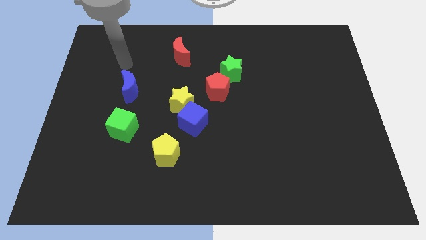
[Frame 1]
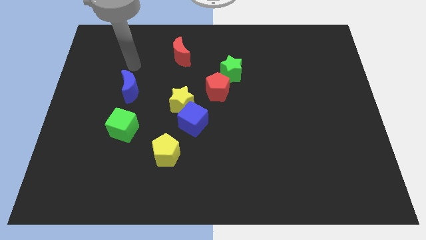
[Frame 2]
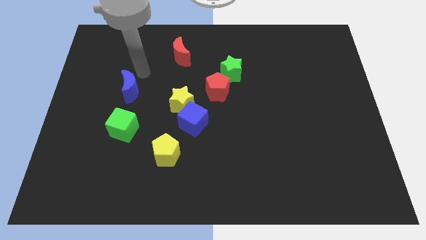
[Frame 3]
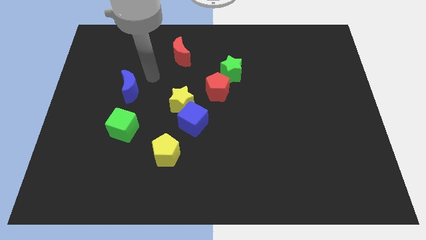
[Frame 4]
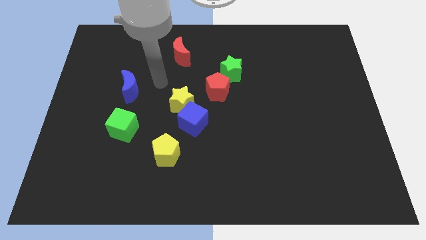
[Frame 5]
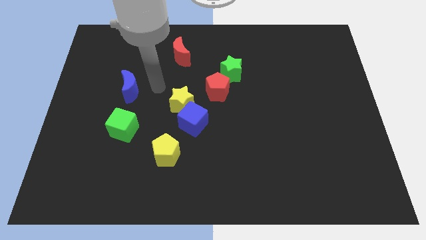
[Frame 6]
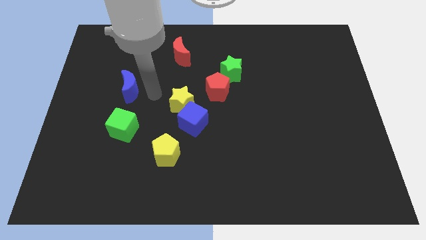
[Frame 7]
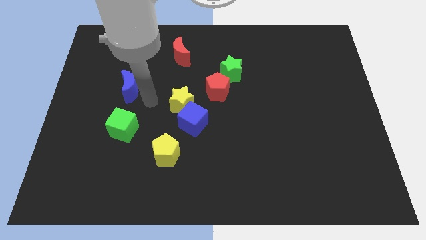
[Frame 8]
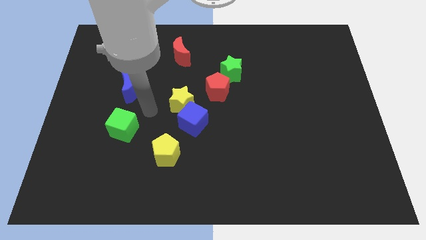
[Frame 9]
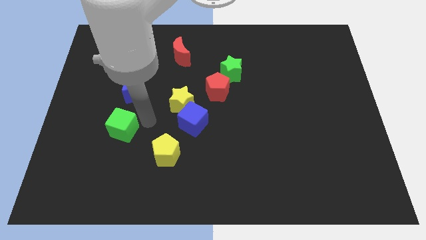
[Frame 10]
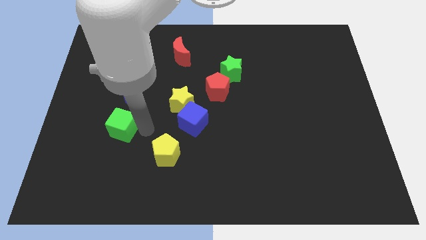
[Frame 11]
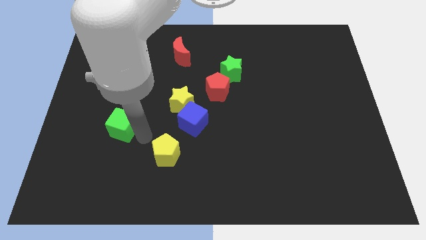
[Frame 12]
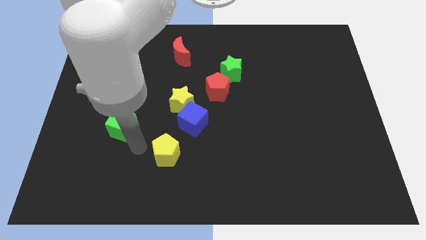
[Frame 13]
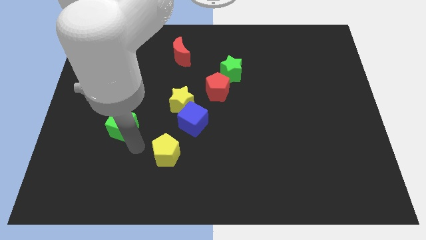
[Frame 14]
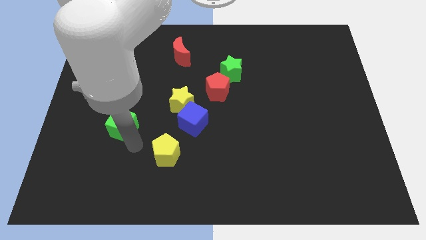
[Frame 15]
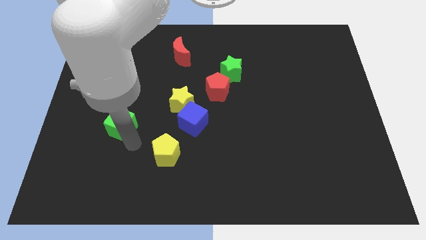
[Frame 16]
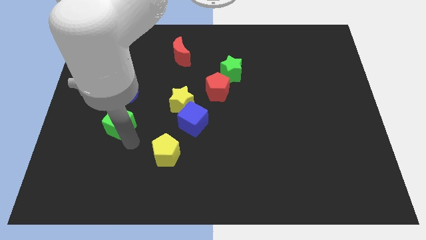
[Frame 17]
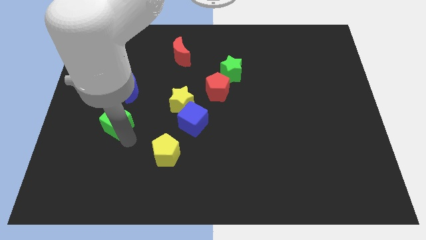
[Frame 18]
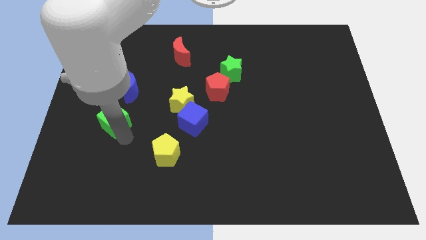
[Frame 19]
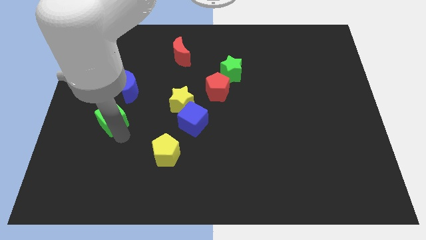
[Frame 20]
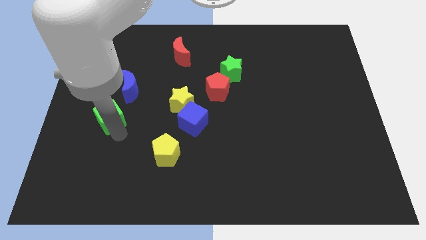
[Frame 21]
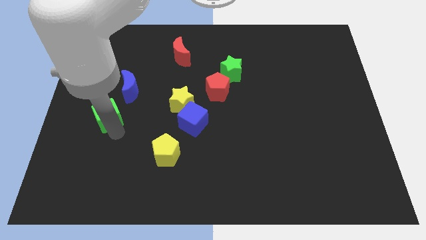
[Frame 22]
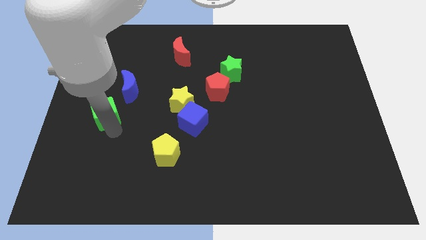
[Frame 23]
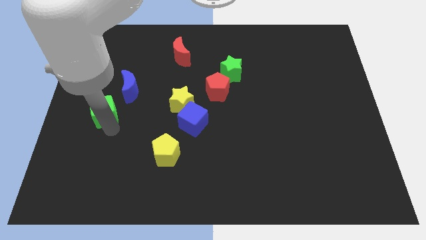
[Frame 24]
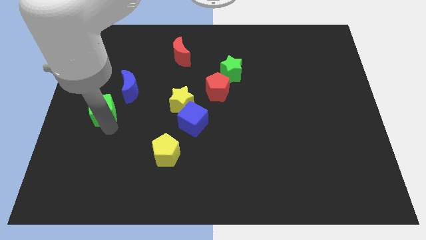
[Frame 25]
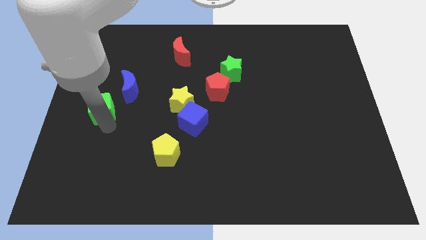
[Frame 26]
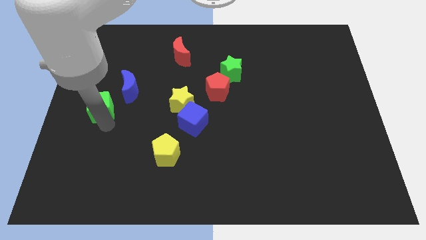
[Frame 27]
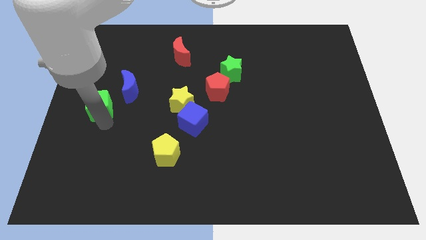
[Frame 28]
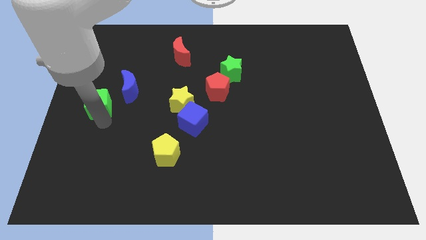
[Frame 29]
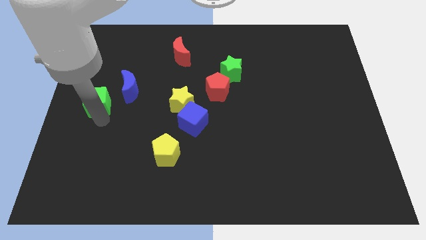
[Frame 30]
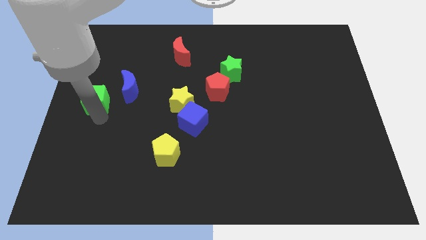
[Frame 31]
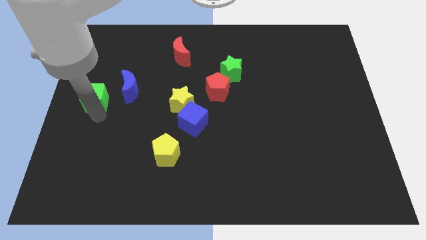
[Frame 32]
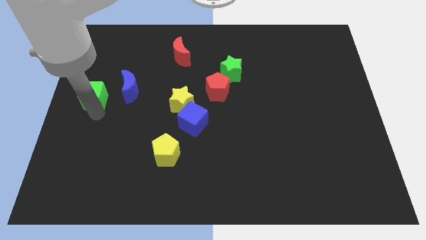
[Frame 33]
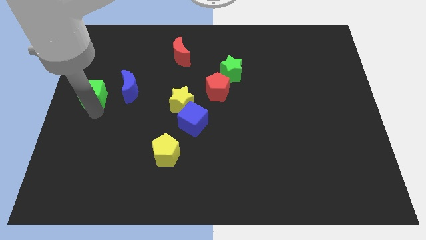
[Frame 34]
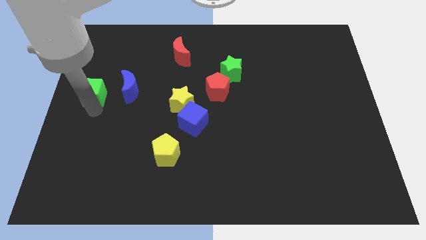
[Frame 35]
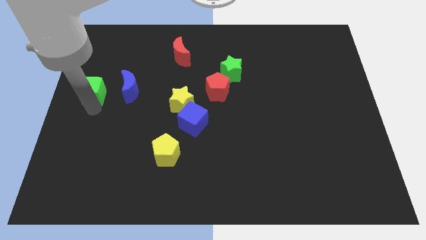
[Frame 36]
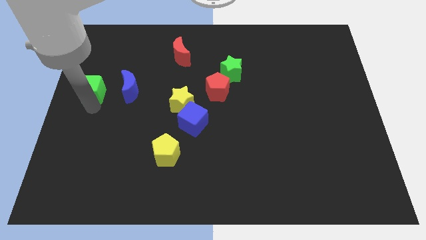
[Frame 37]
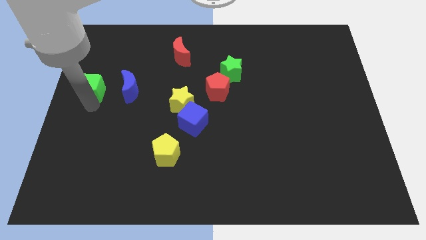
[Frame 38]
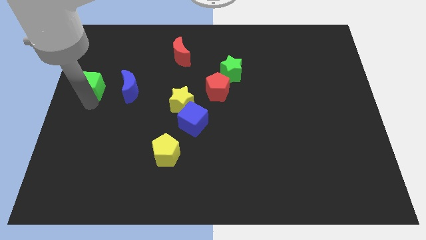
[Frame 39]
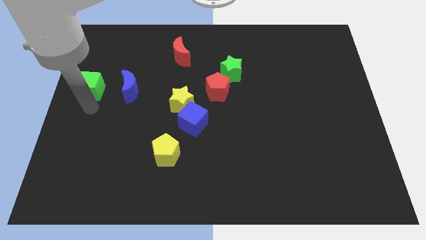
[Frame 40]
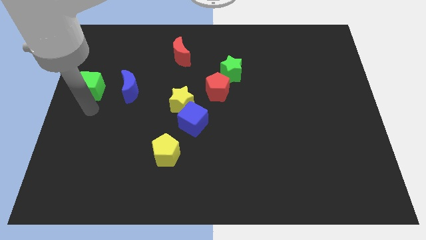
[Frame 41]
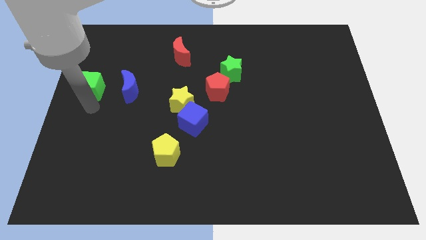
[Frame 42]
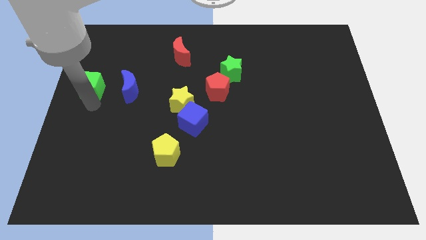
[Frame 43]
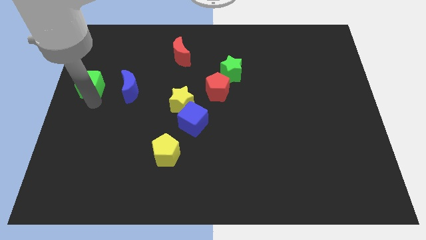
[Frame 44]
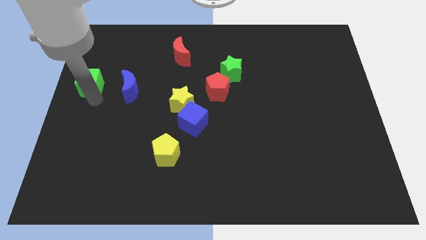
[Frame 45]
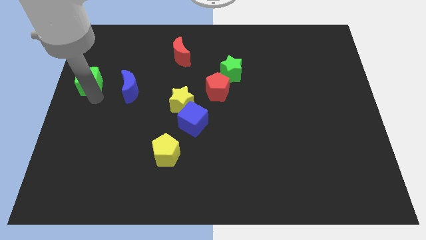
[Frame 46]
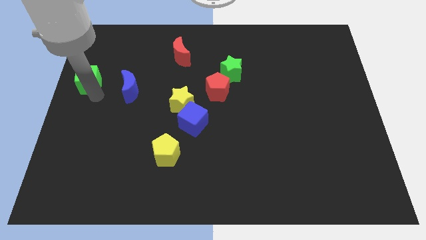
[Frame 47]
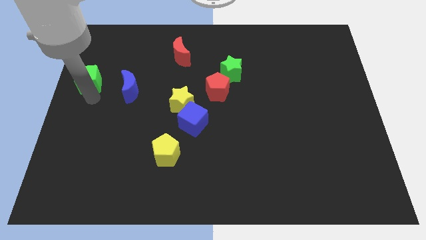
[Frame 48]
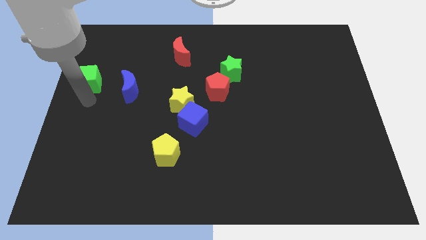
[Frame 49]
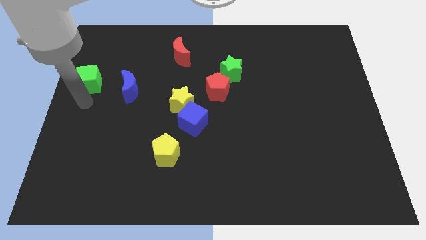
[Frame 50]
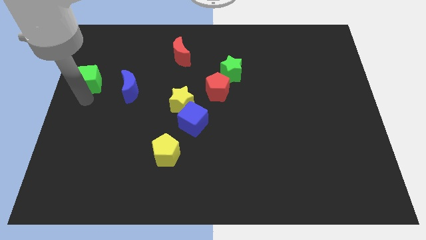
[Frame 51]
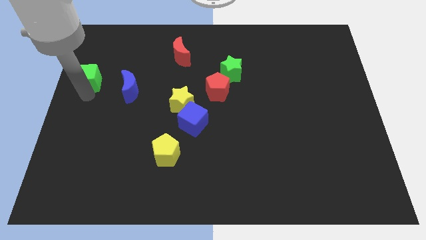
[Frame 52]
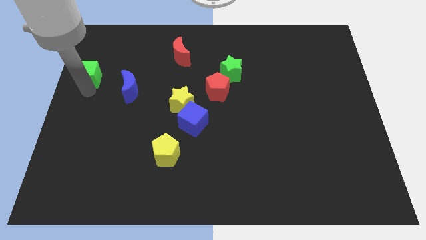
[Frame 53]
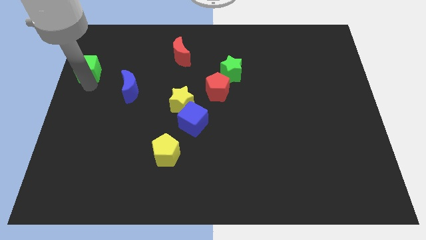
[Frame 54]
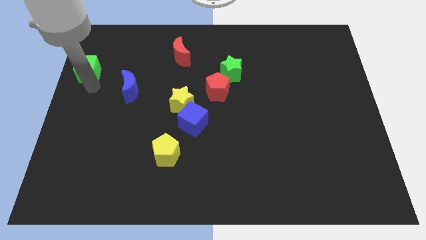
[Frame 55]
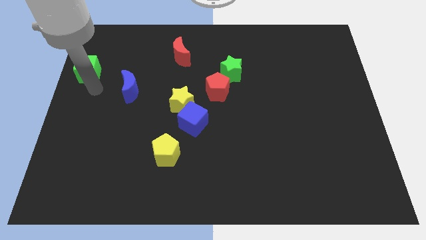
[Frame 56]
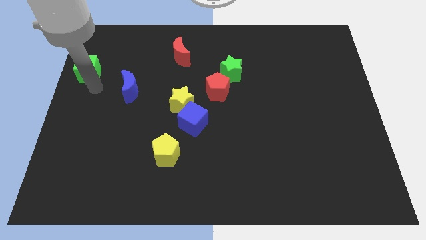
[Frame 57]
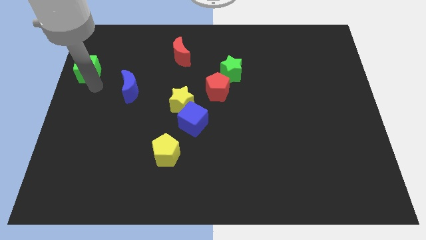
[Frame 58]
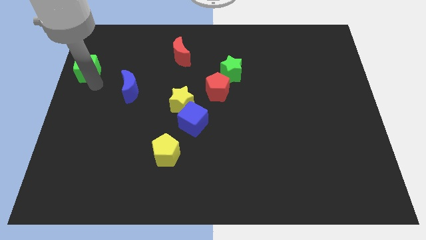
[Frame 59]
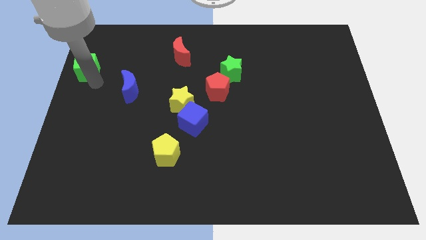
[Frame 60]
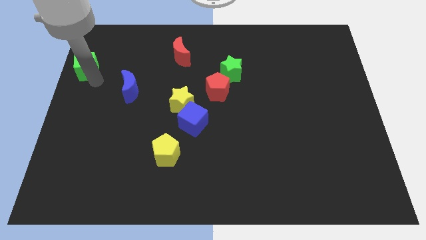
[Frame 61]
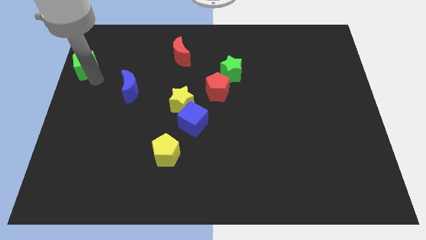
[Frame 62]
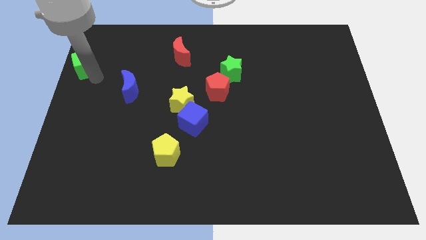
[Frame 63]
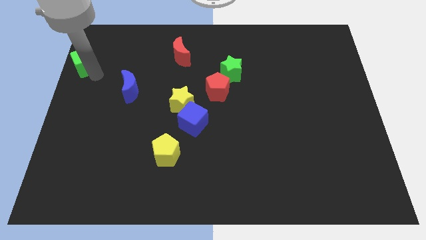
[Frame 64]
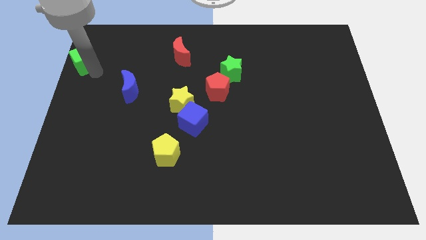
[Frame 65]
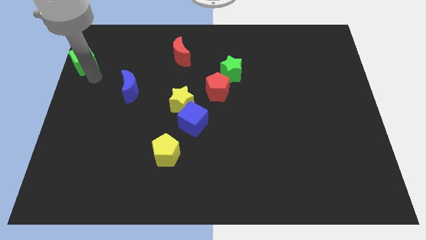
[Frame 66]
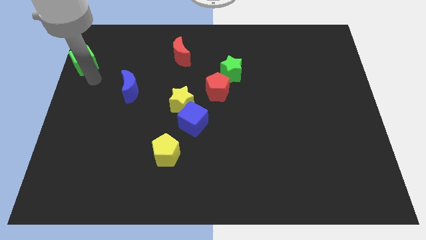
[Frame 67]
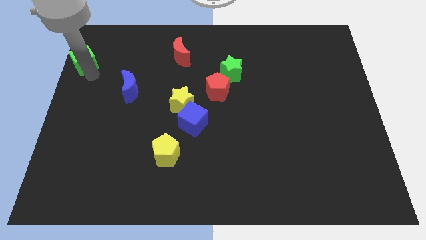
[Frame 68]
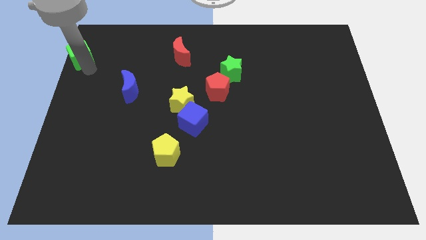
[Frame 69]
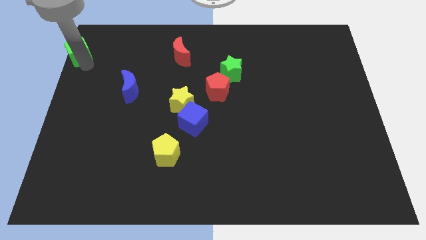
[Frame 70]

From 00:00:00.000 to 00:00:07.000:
put the green cube to the upper left corner
